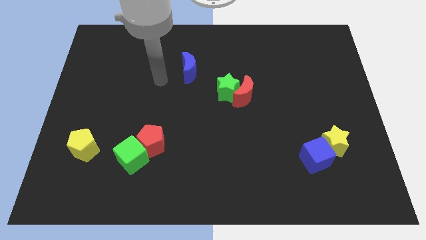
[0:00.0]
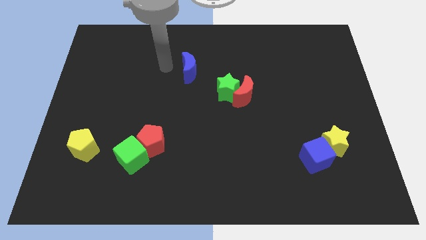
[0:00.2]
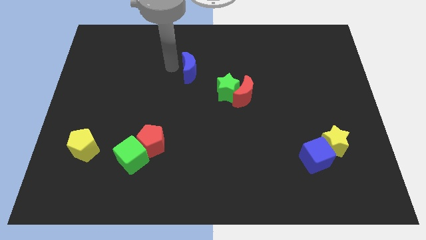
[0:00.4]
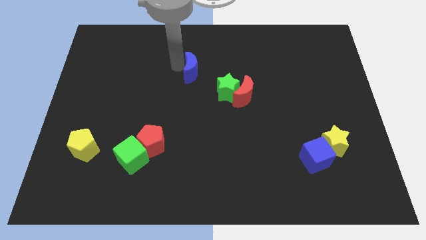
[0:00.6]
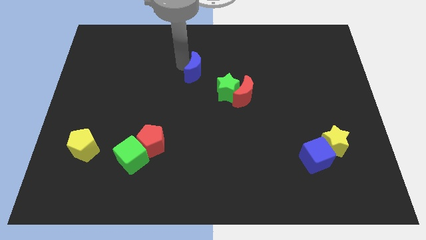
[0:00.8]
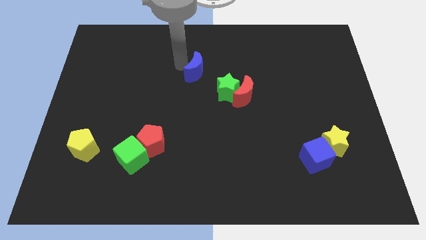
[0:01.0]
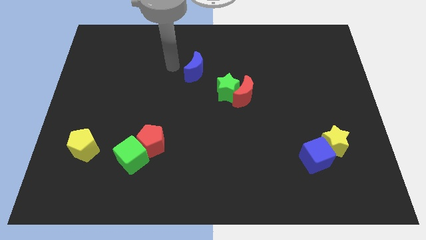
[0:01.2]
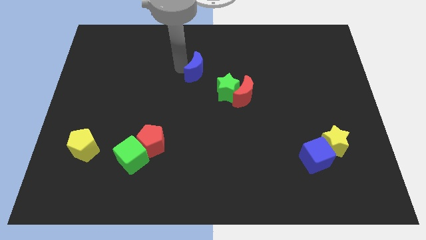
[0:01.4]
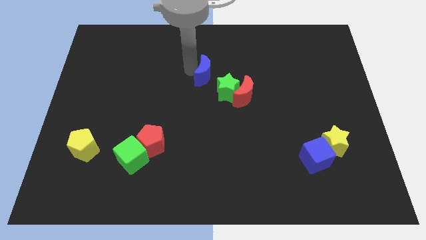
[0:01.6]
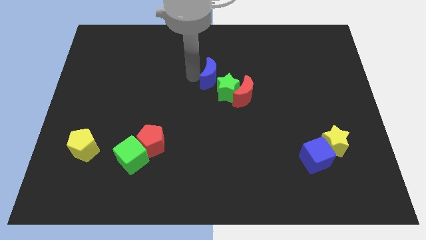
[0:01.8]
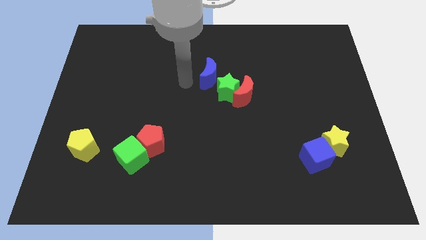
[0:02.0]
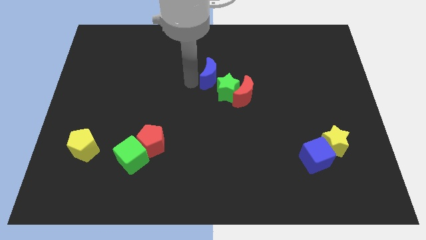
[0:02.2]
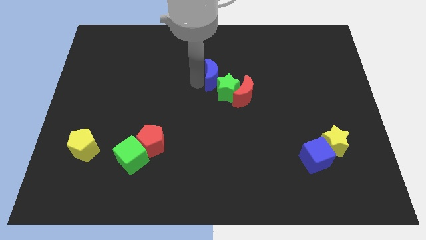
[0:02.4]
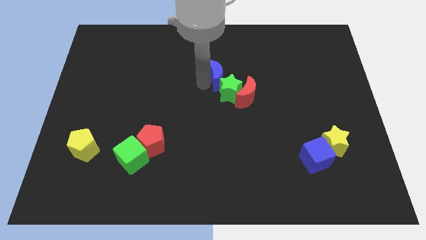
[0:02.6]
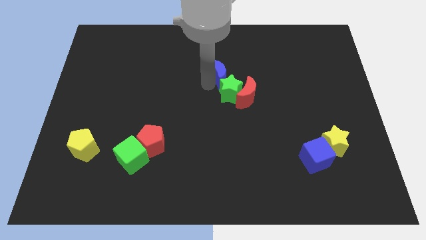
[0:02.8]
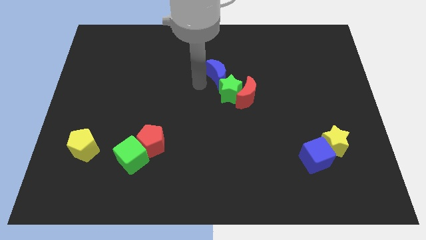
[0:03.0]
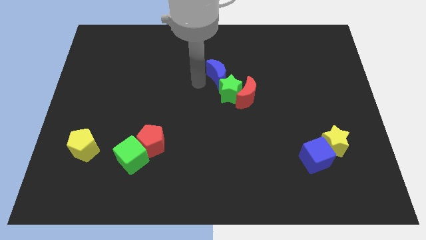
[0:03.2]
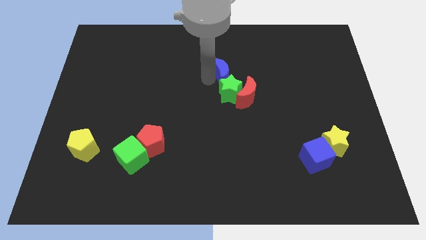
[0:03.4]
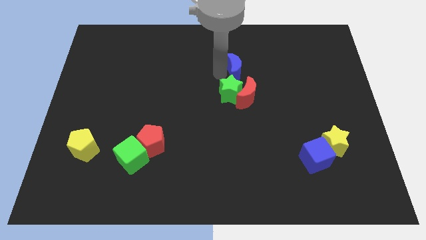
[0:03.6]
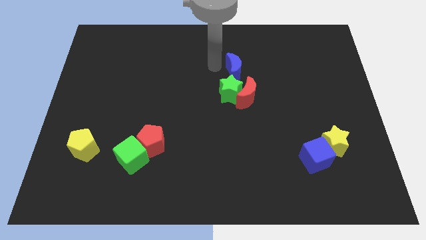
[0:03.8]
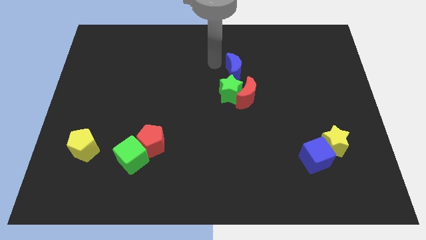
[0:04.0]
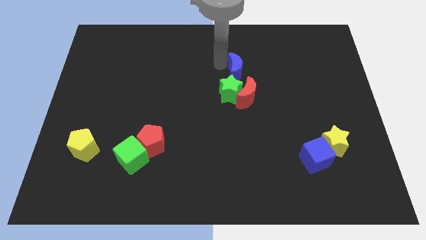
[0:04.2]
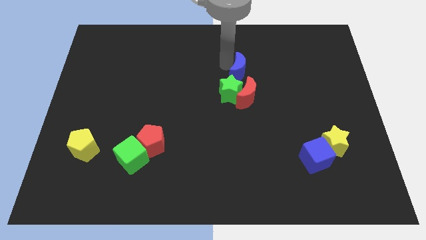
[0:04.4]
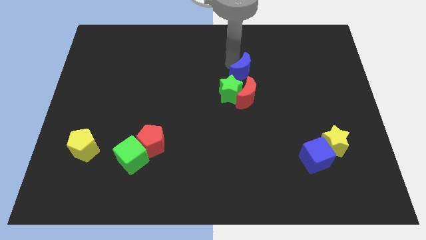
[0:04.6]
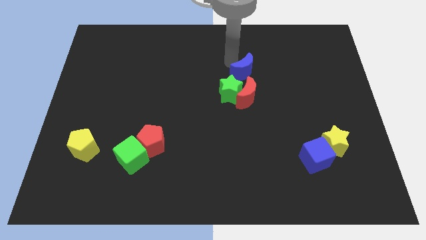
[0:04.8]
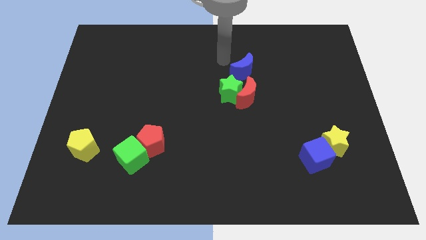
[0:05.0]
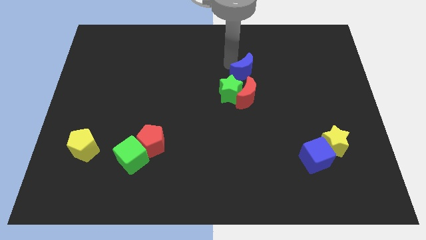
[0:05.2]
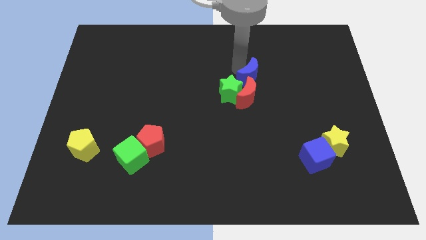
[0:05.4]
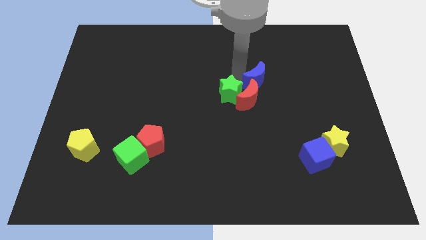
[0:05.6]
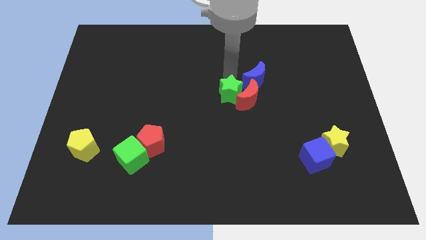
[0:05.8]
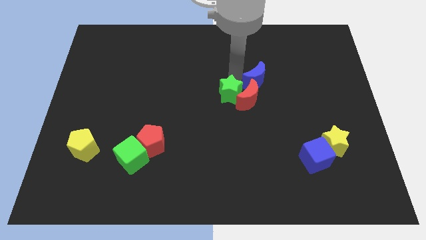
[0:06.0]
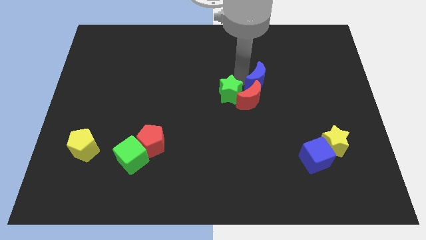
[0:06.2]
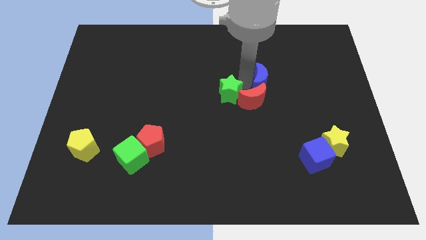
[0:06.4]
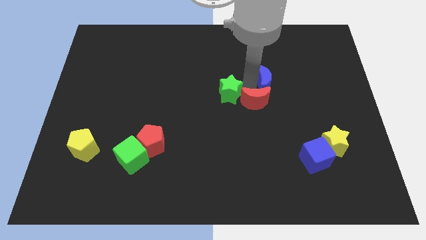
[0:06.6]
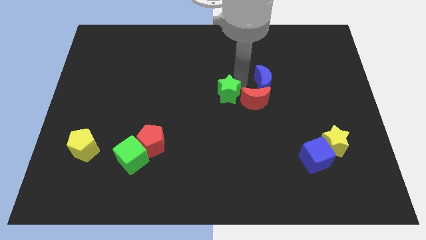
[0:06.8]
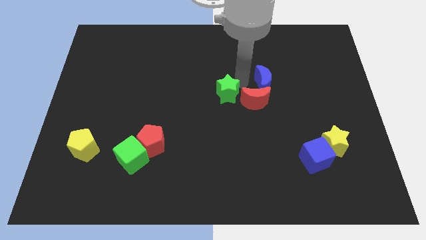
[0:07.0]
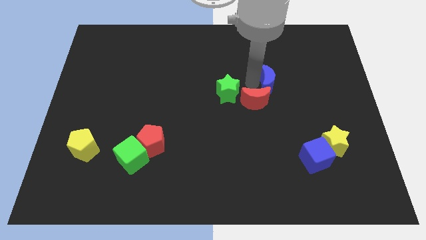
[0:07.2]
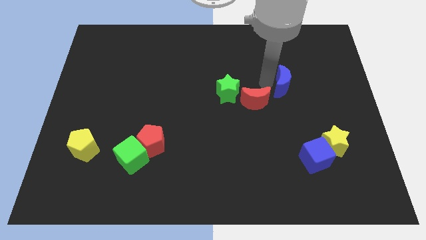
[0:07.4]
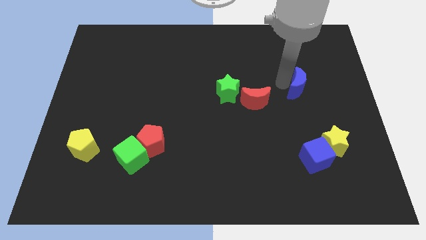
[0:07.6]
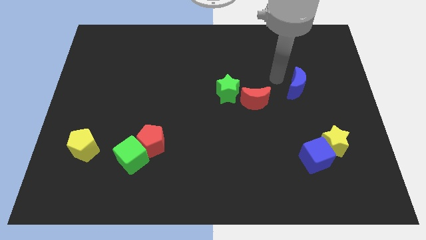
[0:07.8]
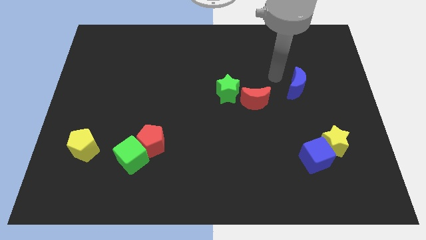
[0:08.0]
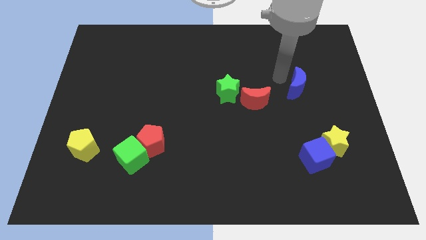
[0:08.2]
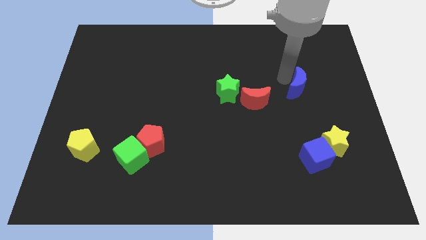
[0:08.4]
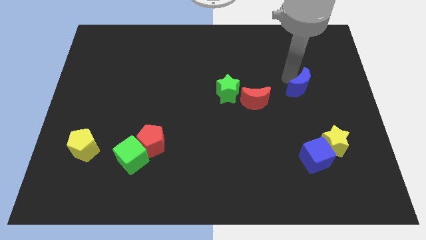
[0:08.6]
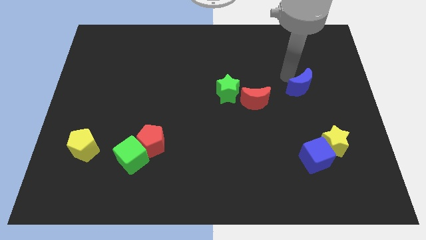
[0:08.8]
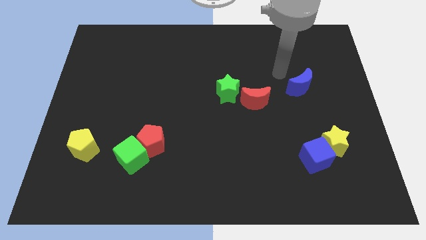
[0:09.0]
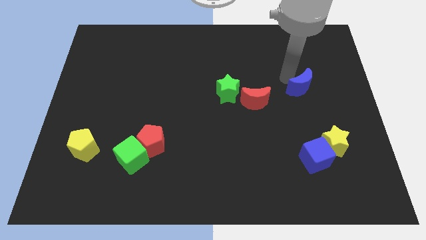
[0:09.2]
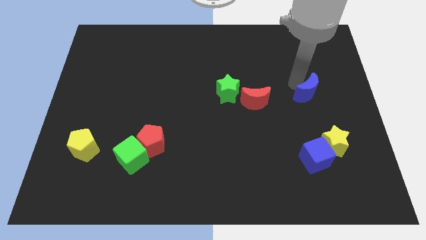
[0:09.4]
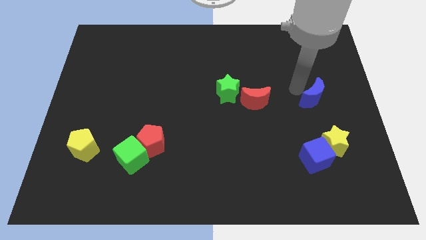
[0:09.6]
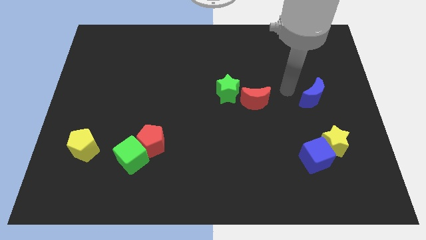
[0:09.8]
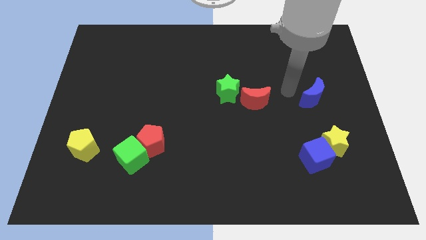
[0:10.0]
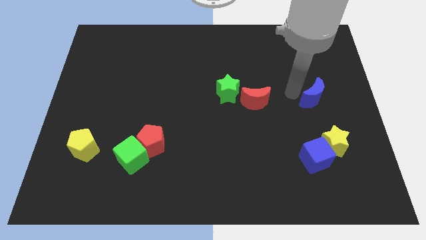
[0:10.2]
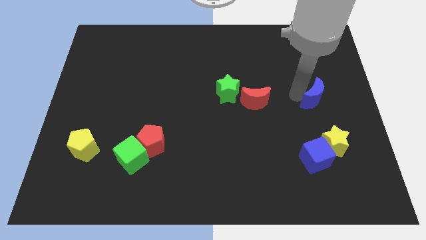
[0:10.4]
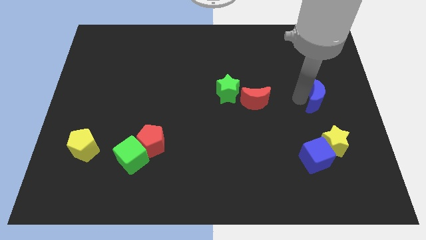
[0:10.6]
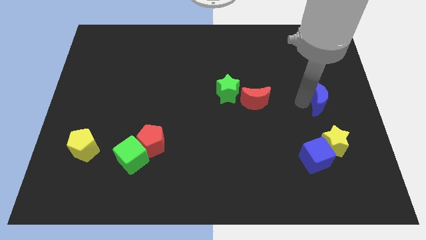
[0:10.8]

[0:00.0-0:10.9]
push the blue moon to the right side
